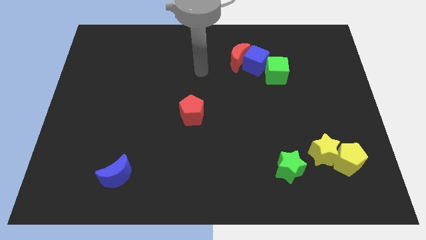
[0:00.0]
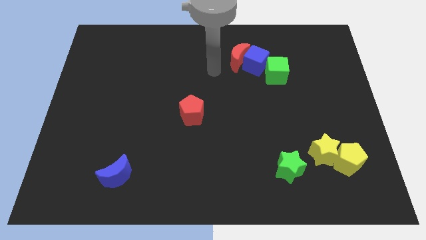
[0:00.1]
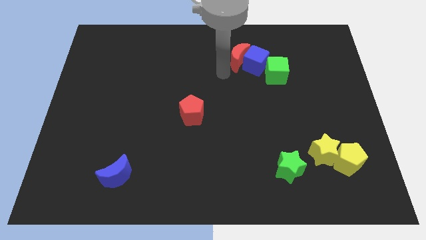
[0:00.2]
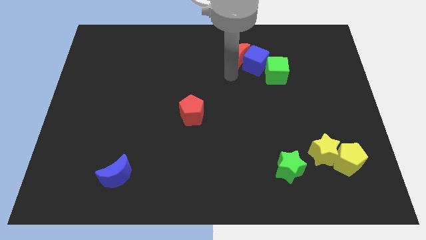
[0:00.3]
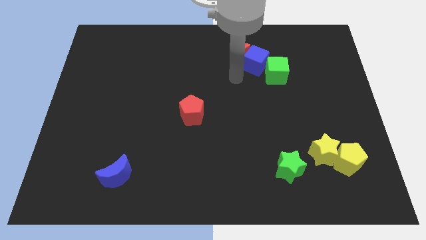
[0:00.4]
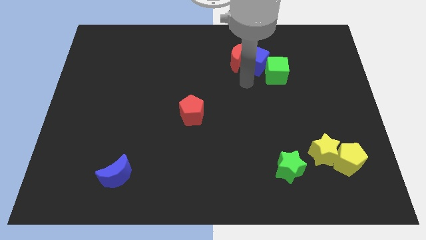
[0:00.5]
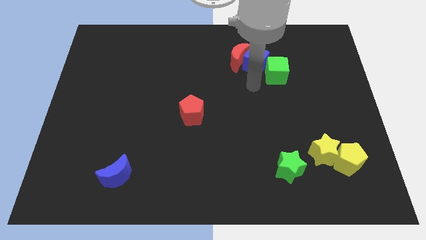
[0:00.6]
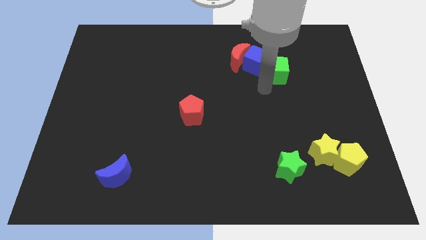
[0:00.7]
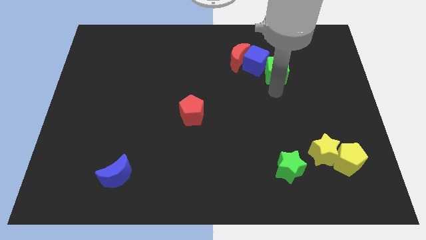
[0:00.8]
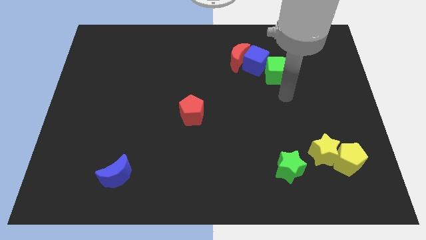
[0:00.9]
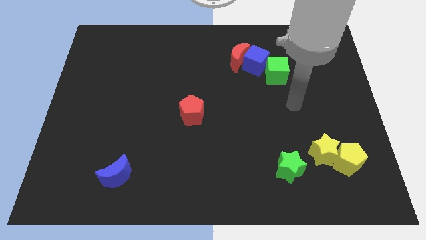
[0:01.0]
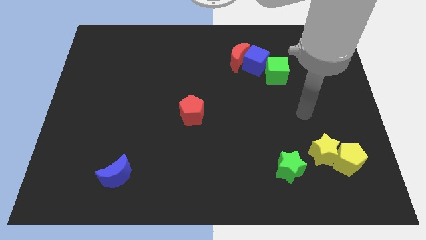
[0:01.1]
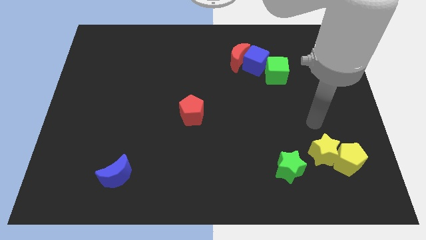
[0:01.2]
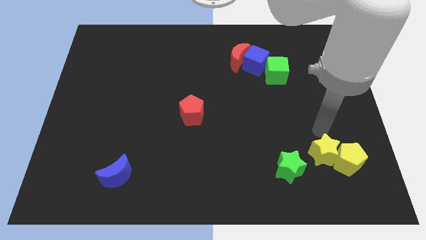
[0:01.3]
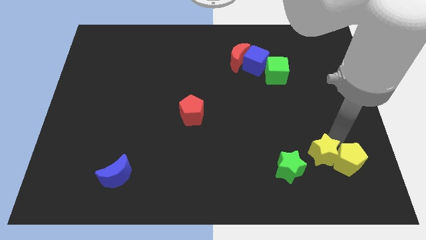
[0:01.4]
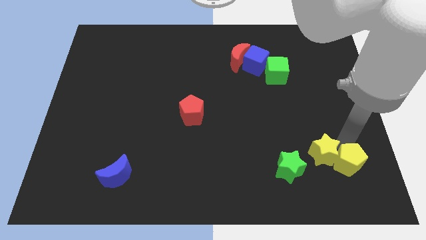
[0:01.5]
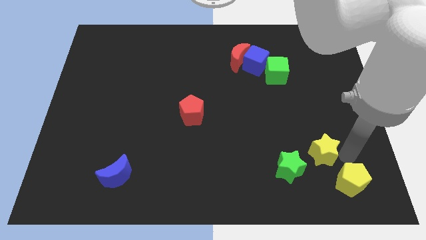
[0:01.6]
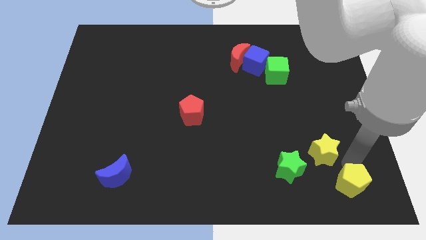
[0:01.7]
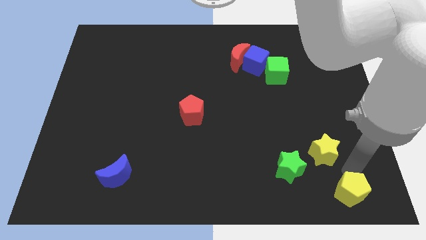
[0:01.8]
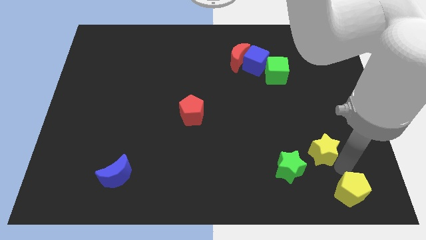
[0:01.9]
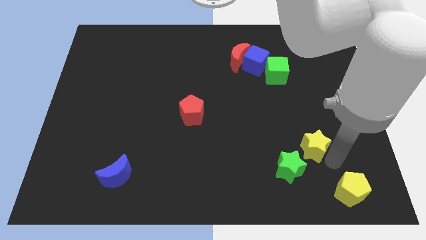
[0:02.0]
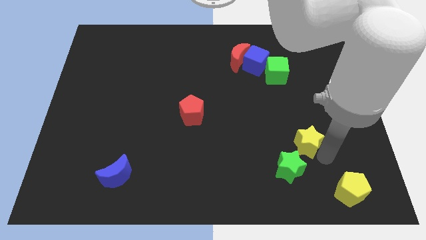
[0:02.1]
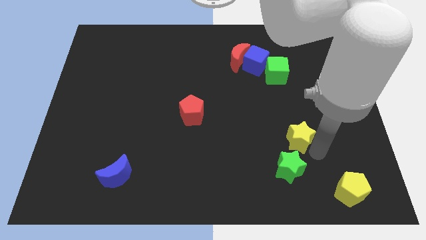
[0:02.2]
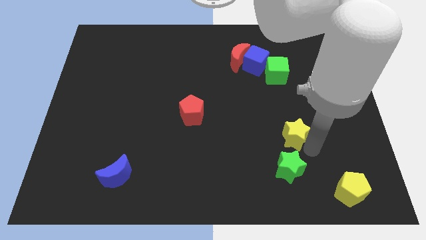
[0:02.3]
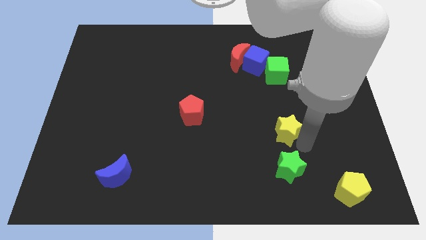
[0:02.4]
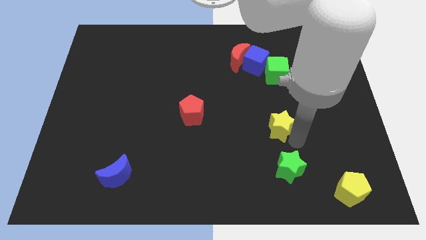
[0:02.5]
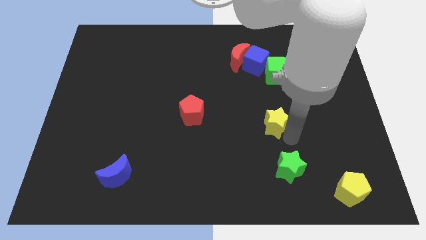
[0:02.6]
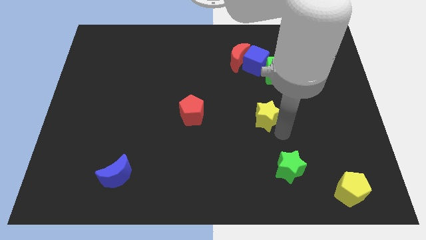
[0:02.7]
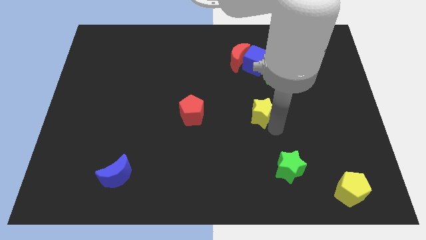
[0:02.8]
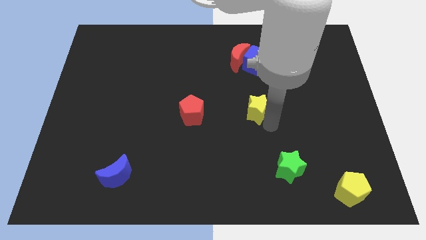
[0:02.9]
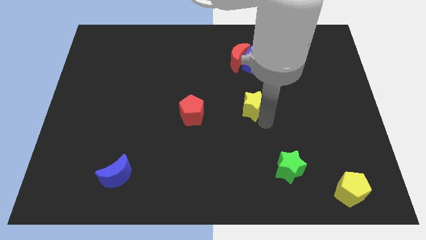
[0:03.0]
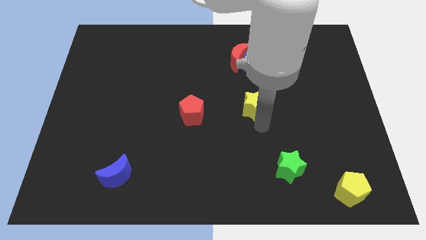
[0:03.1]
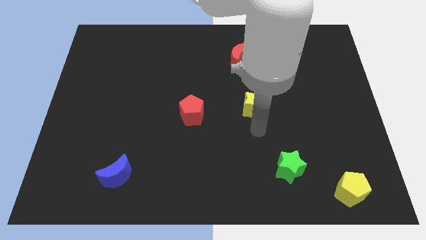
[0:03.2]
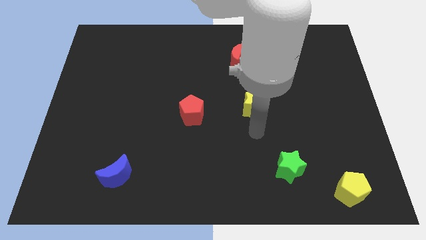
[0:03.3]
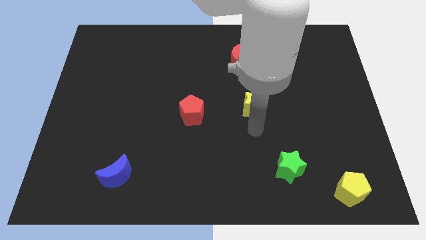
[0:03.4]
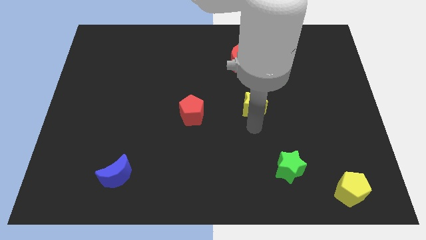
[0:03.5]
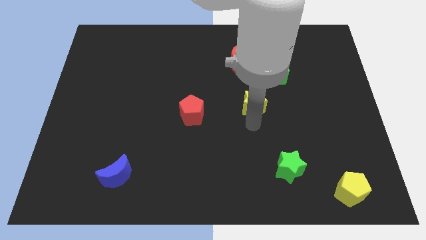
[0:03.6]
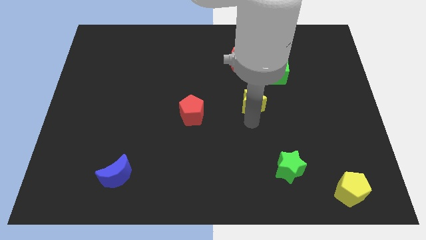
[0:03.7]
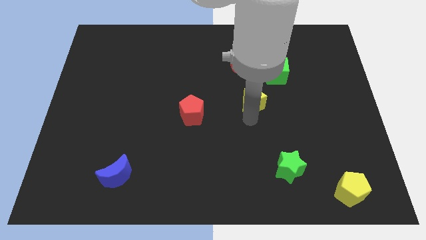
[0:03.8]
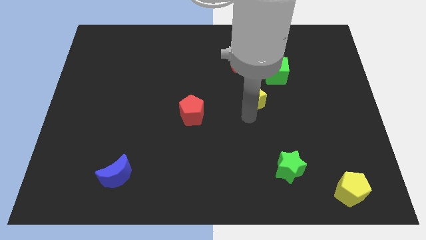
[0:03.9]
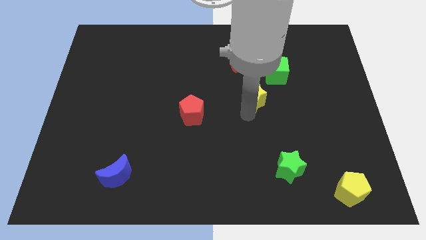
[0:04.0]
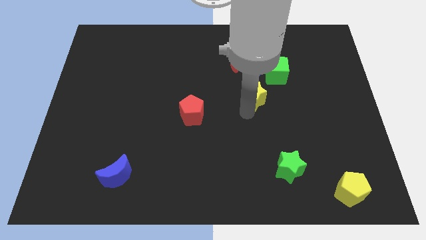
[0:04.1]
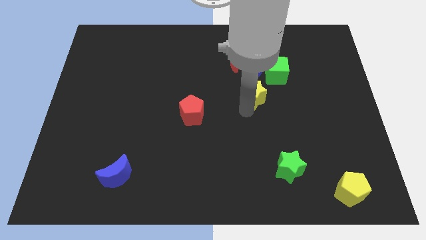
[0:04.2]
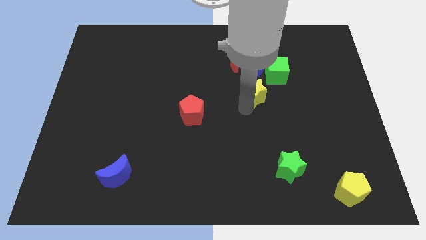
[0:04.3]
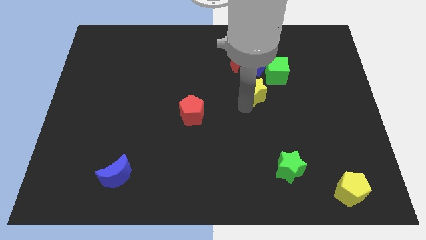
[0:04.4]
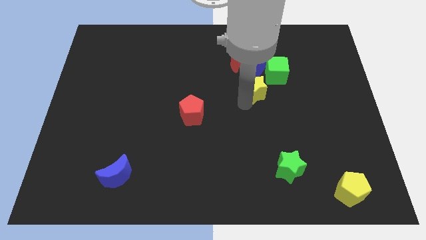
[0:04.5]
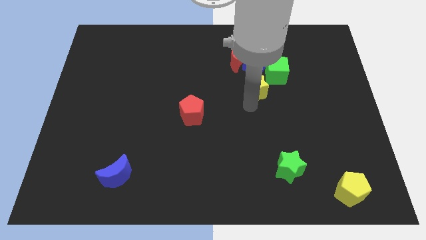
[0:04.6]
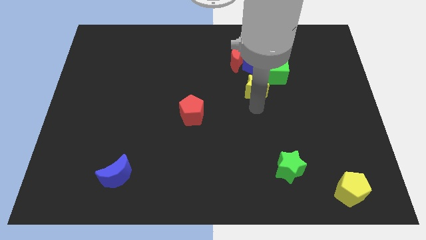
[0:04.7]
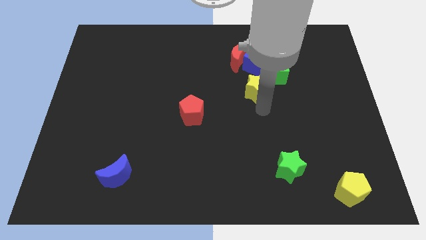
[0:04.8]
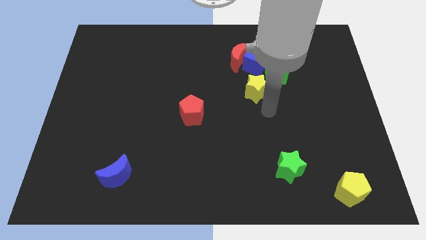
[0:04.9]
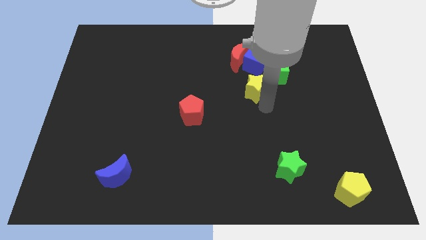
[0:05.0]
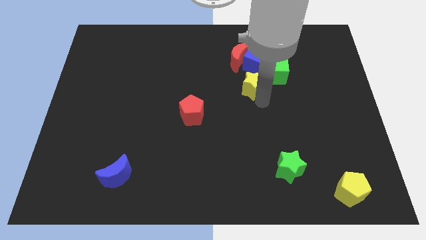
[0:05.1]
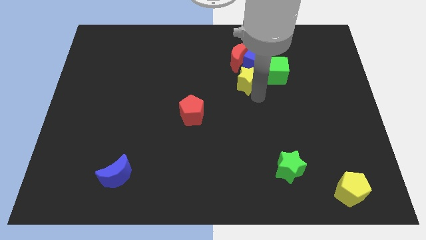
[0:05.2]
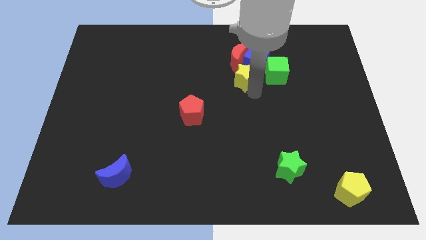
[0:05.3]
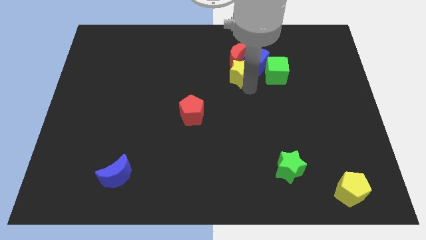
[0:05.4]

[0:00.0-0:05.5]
move the yellow star towards the red moon

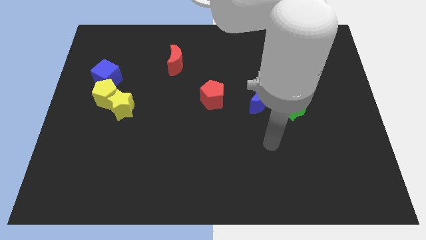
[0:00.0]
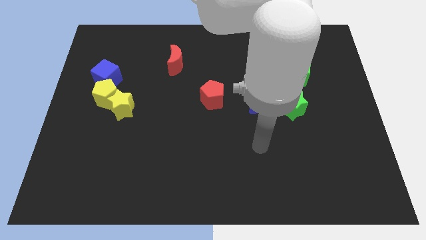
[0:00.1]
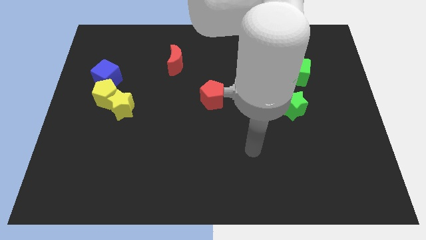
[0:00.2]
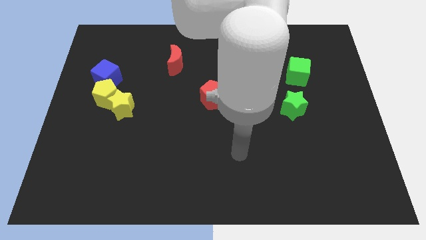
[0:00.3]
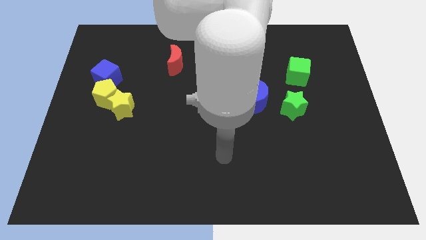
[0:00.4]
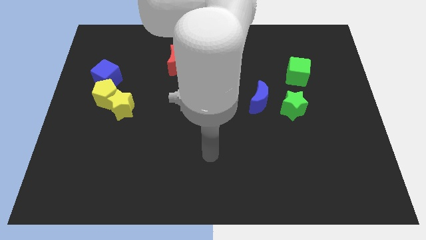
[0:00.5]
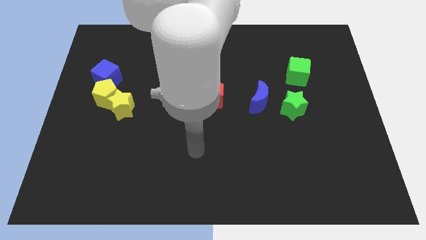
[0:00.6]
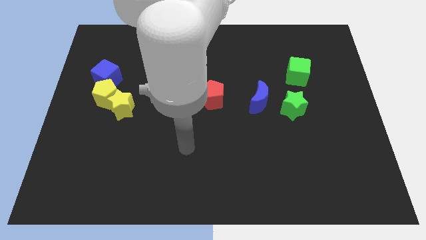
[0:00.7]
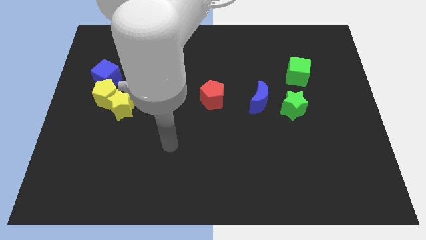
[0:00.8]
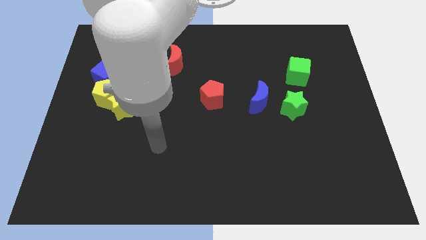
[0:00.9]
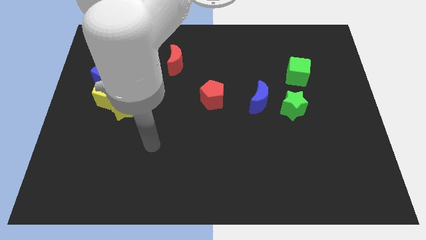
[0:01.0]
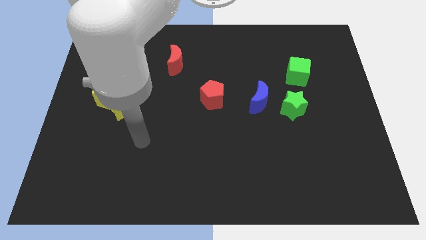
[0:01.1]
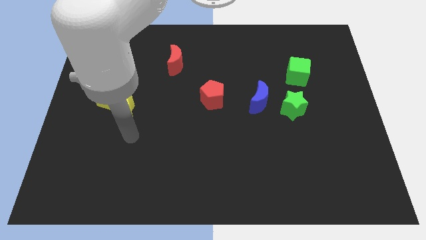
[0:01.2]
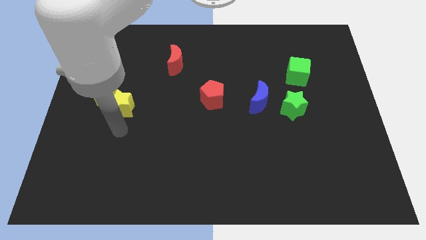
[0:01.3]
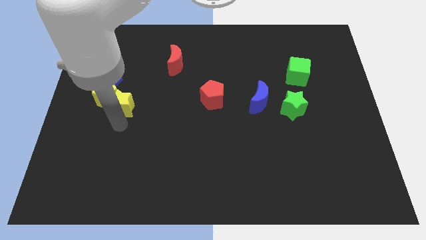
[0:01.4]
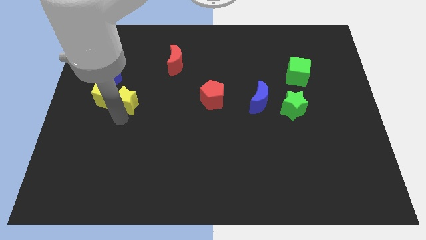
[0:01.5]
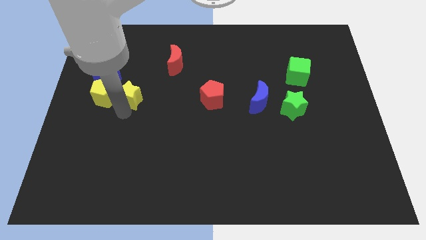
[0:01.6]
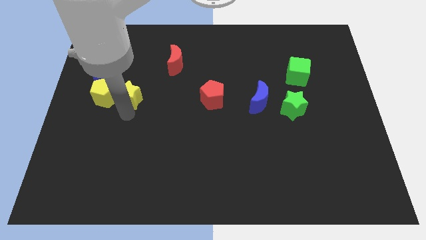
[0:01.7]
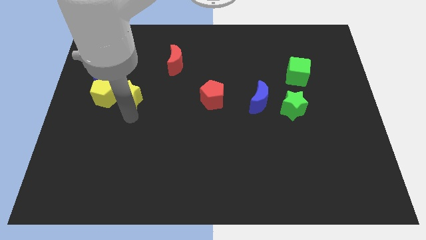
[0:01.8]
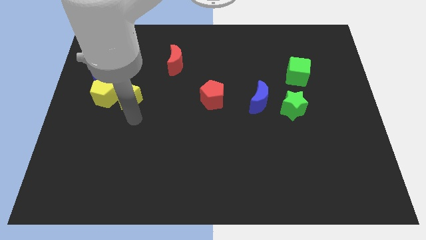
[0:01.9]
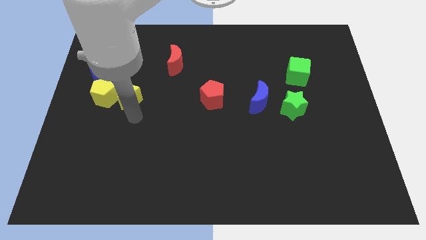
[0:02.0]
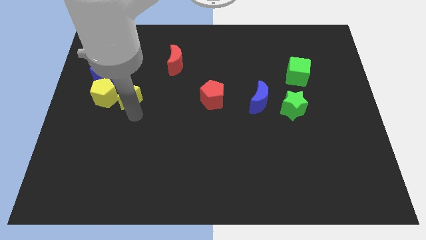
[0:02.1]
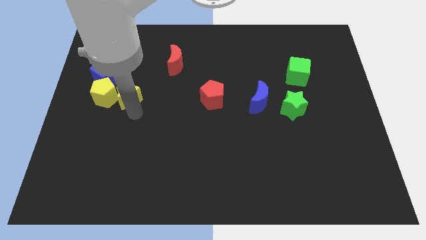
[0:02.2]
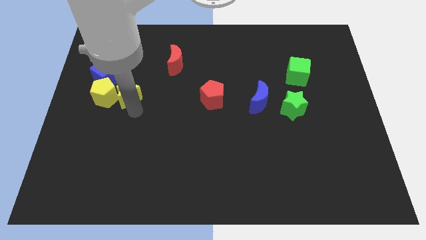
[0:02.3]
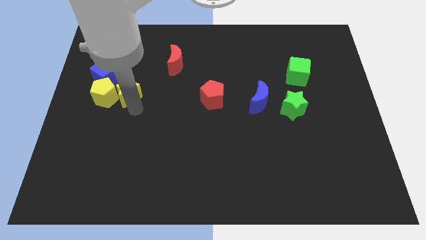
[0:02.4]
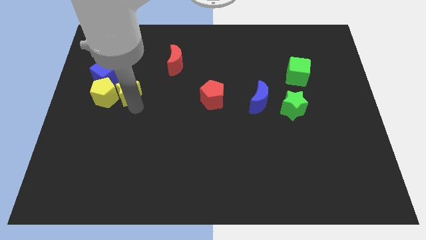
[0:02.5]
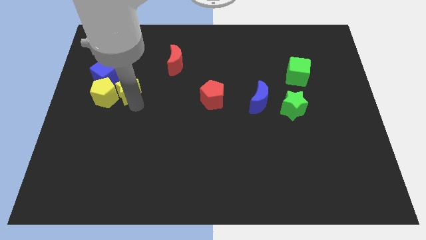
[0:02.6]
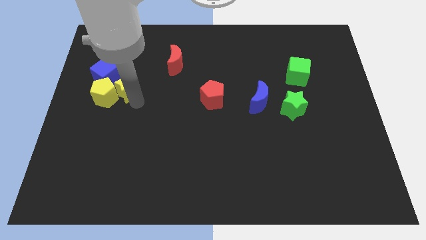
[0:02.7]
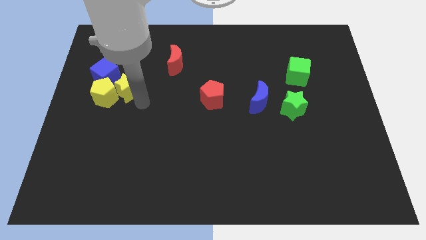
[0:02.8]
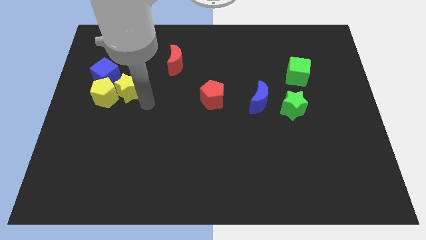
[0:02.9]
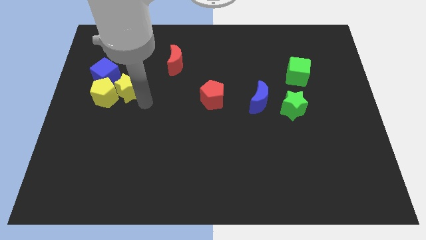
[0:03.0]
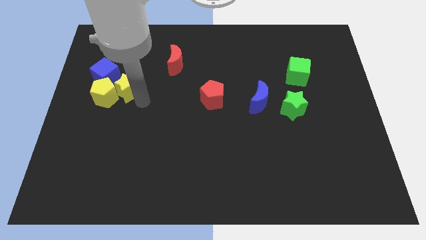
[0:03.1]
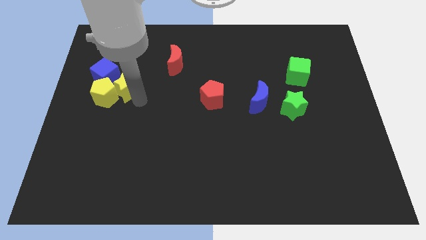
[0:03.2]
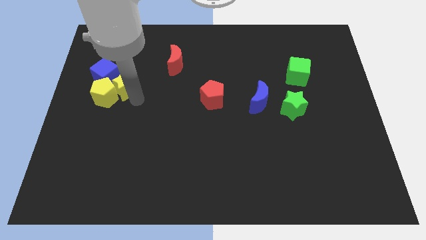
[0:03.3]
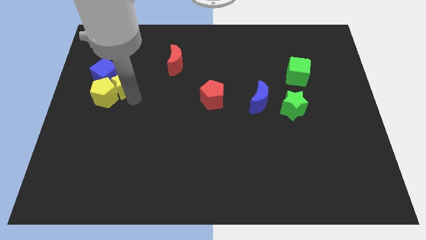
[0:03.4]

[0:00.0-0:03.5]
push the yellow star close to the blue cube
